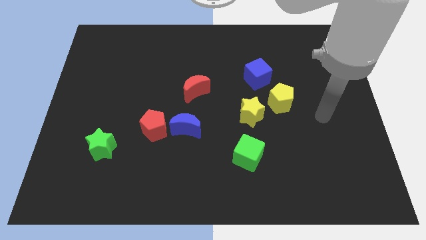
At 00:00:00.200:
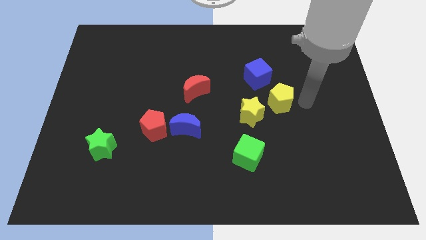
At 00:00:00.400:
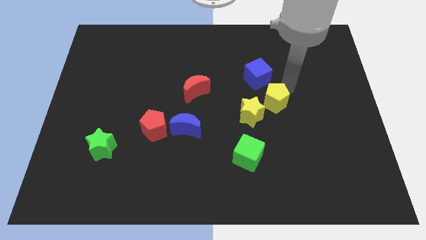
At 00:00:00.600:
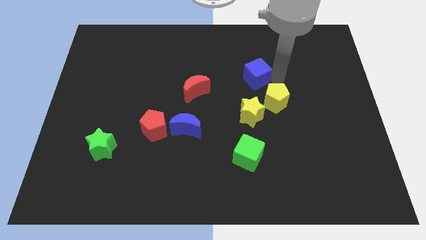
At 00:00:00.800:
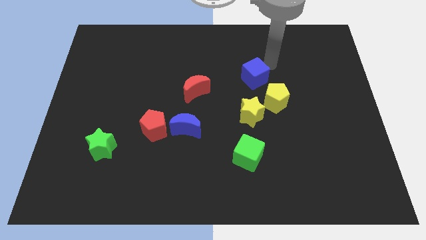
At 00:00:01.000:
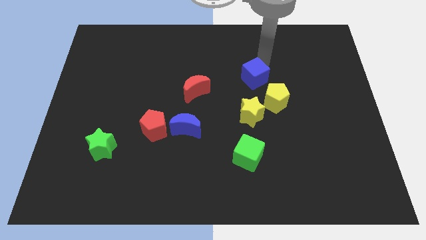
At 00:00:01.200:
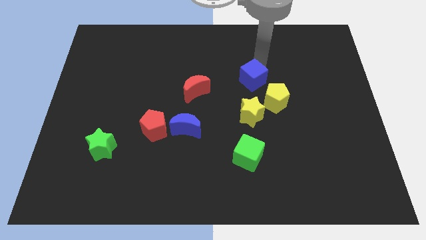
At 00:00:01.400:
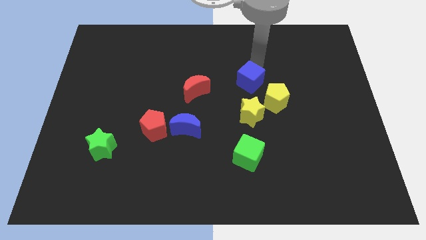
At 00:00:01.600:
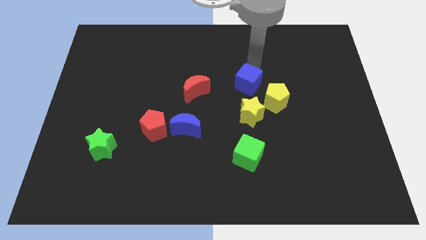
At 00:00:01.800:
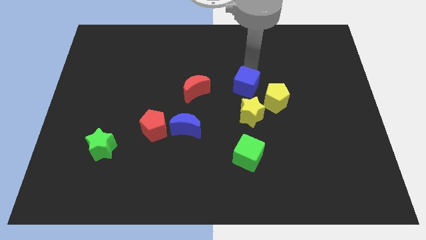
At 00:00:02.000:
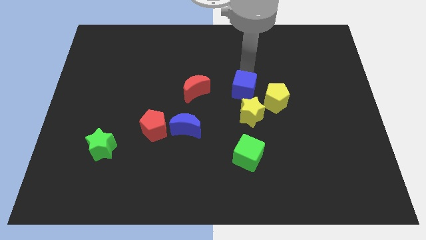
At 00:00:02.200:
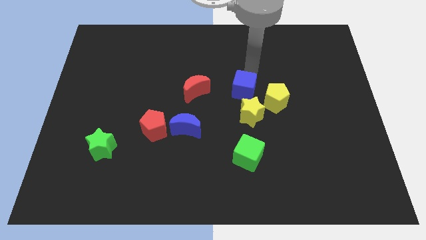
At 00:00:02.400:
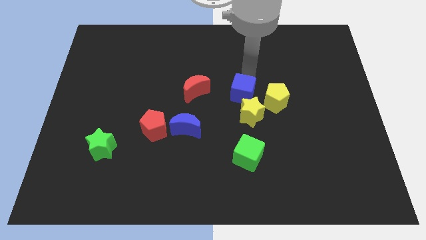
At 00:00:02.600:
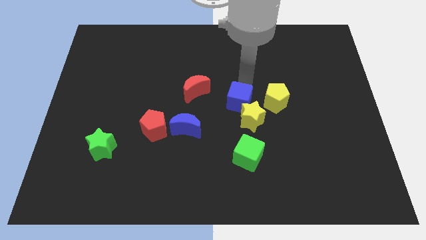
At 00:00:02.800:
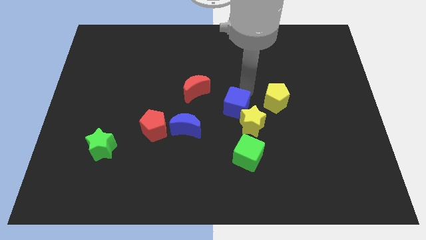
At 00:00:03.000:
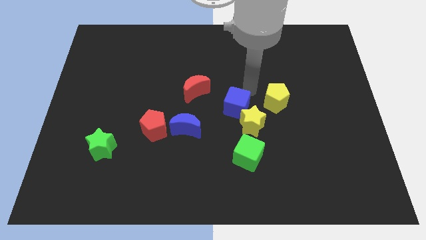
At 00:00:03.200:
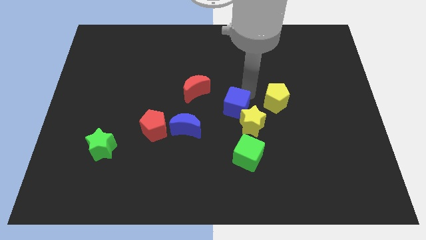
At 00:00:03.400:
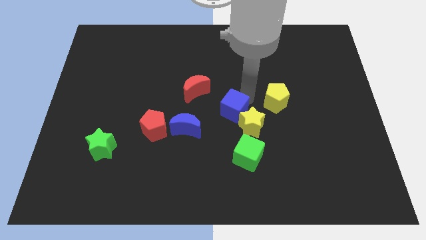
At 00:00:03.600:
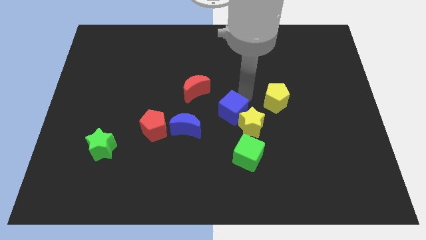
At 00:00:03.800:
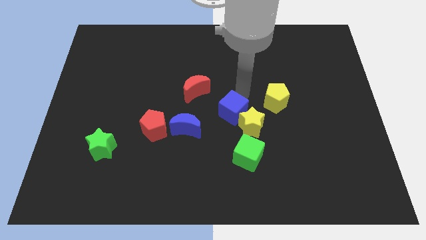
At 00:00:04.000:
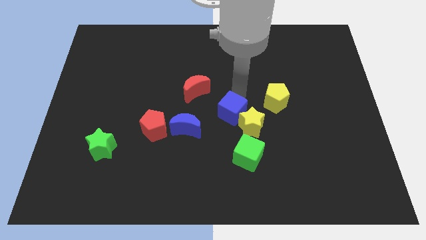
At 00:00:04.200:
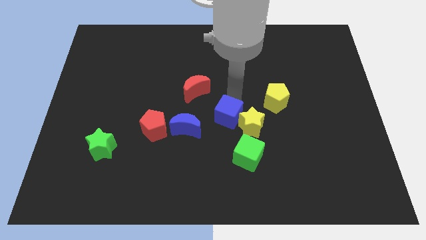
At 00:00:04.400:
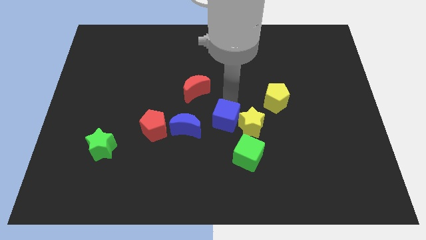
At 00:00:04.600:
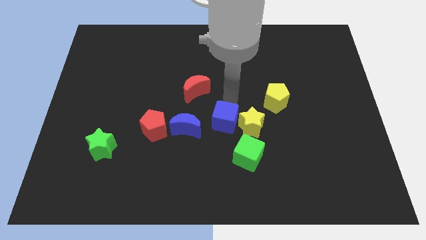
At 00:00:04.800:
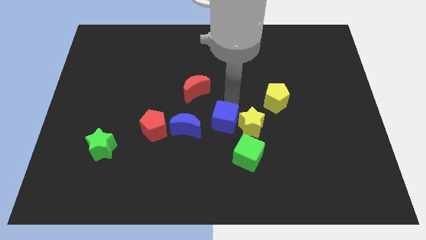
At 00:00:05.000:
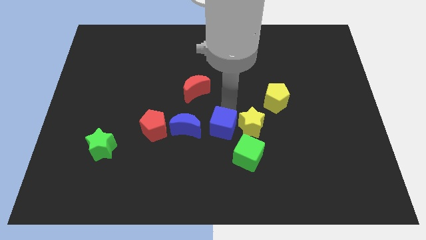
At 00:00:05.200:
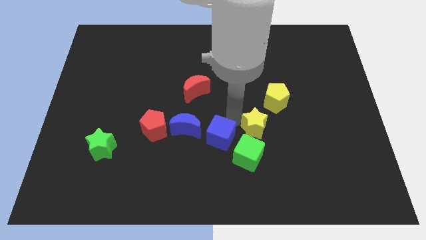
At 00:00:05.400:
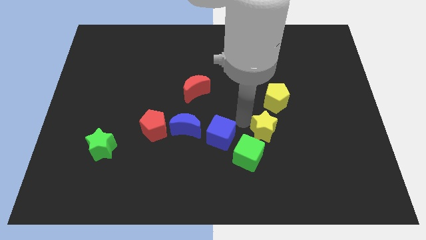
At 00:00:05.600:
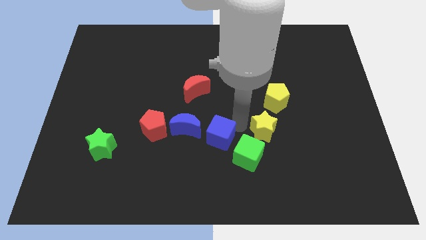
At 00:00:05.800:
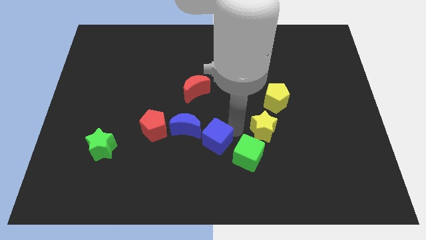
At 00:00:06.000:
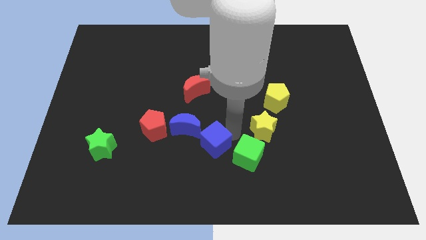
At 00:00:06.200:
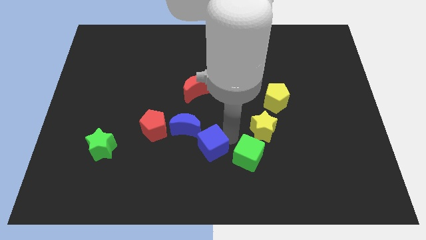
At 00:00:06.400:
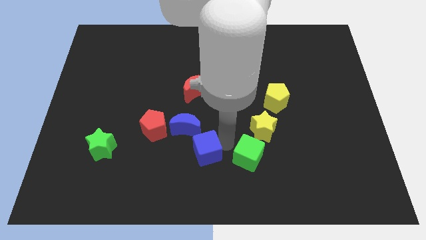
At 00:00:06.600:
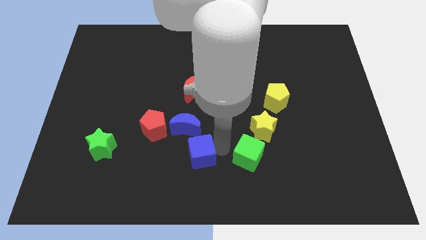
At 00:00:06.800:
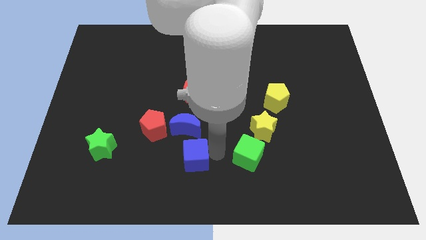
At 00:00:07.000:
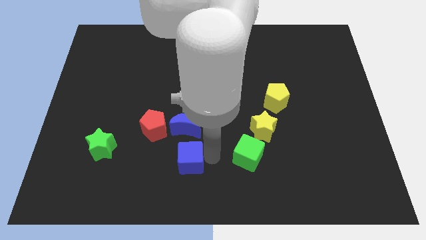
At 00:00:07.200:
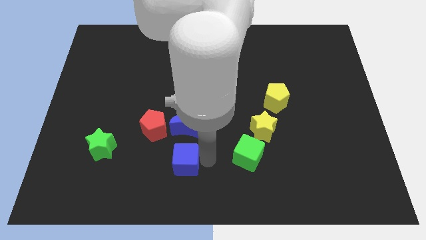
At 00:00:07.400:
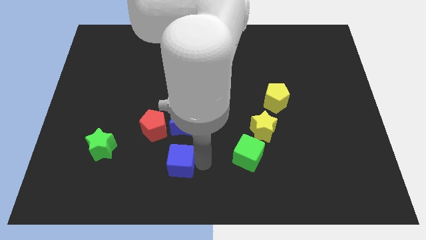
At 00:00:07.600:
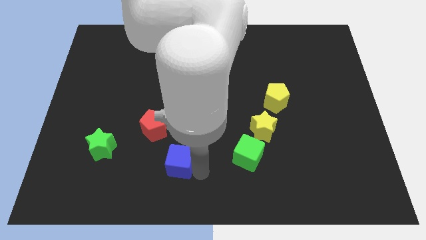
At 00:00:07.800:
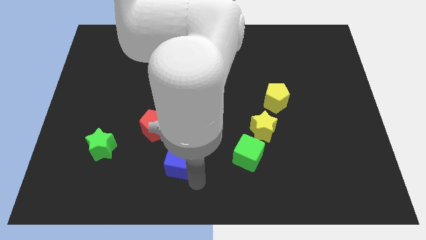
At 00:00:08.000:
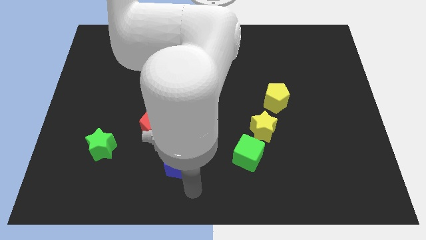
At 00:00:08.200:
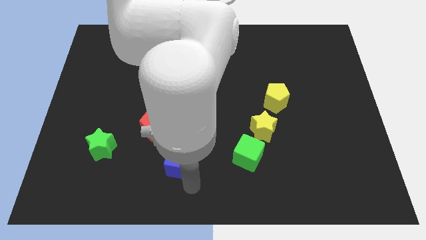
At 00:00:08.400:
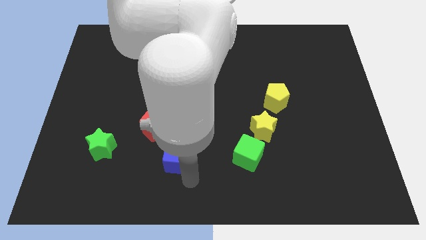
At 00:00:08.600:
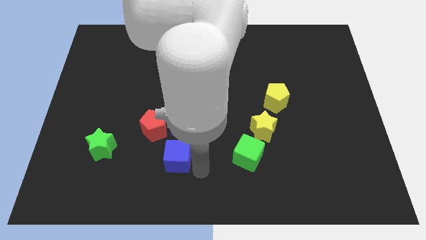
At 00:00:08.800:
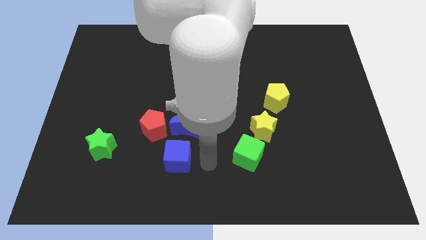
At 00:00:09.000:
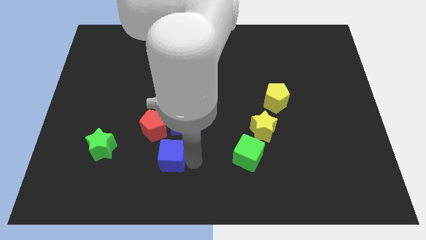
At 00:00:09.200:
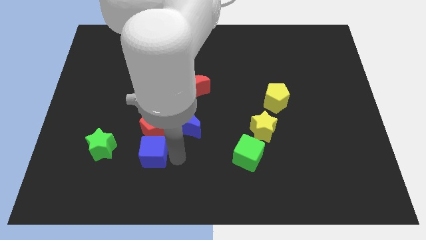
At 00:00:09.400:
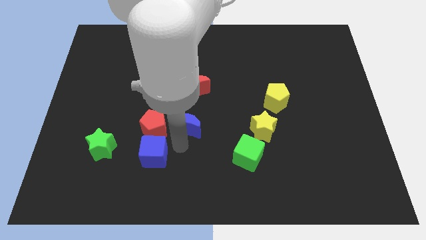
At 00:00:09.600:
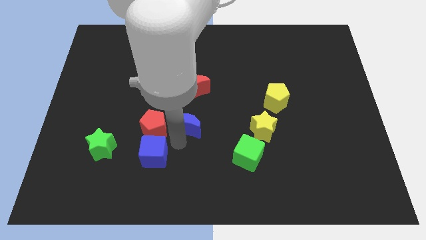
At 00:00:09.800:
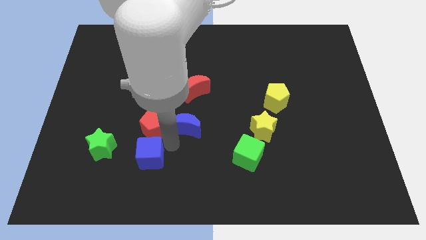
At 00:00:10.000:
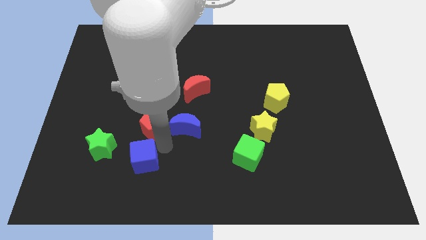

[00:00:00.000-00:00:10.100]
move the blue cube to the bottom right side of the green star

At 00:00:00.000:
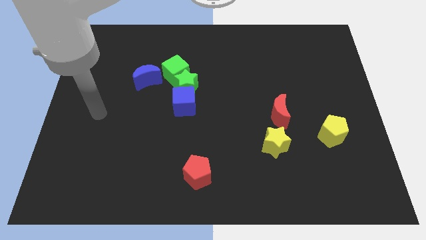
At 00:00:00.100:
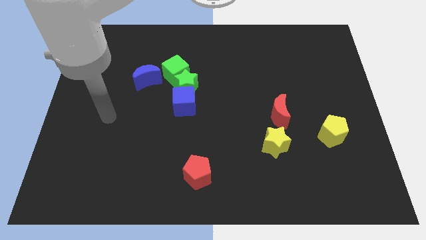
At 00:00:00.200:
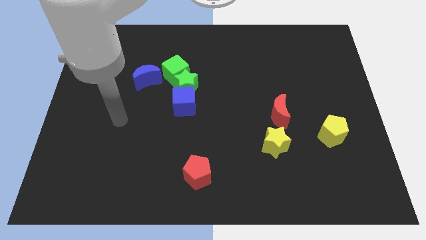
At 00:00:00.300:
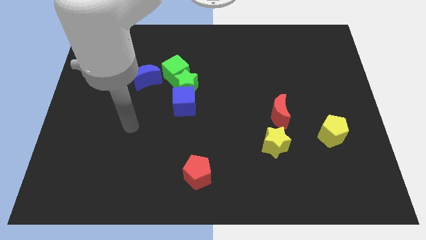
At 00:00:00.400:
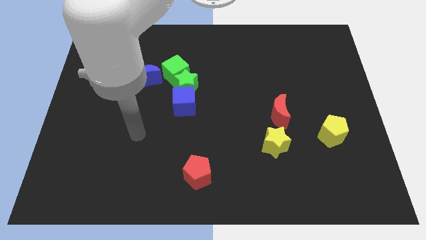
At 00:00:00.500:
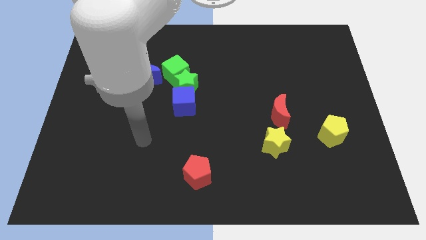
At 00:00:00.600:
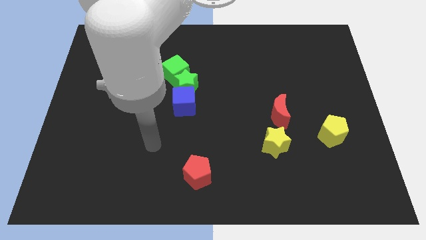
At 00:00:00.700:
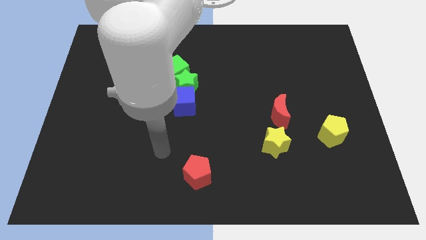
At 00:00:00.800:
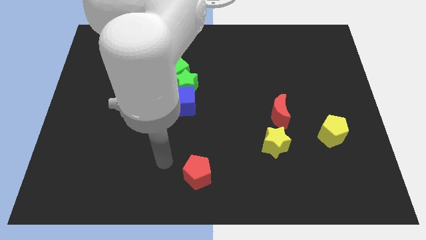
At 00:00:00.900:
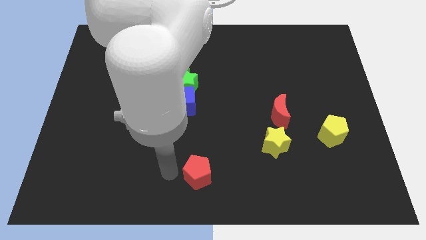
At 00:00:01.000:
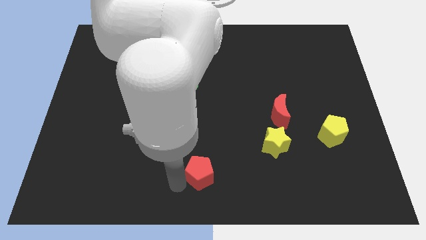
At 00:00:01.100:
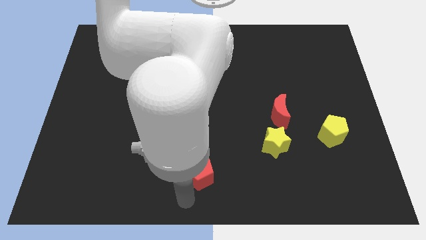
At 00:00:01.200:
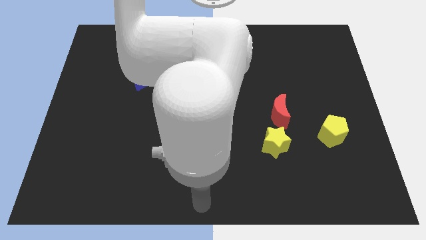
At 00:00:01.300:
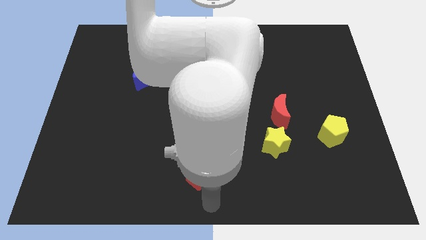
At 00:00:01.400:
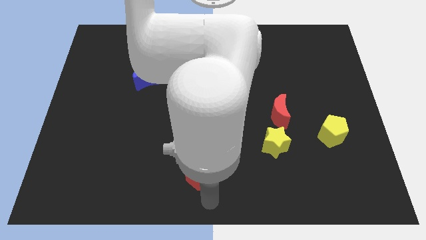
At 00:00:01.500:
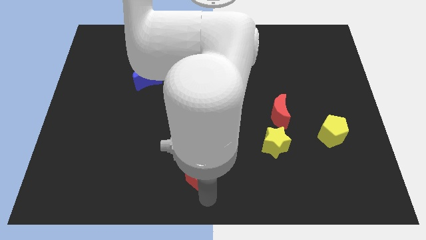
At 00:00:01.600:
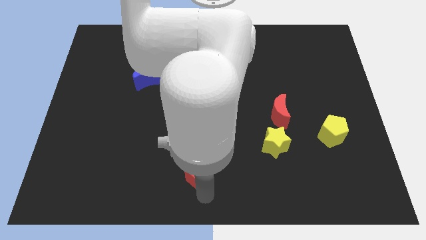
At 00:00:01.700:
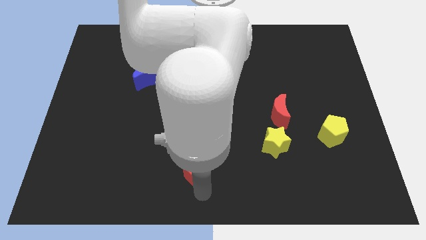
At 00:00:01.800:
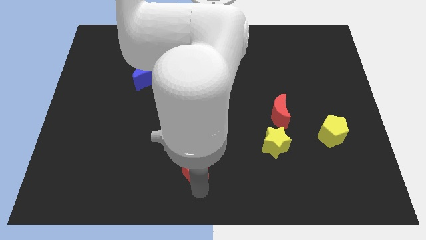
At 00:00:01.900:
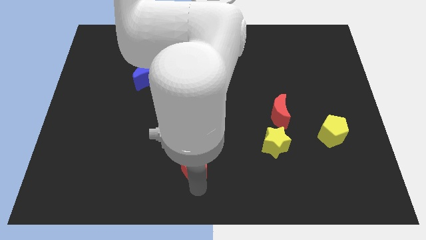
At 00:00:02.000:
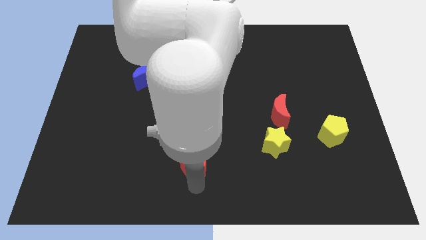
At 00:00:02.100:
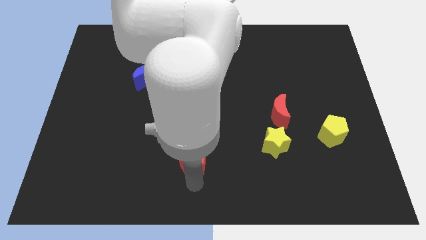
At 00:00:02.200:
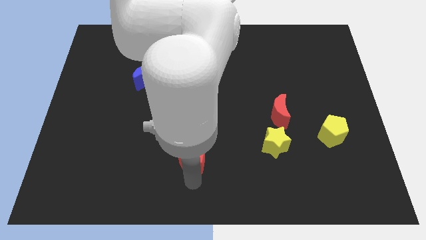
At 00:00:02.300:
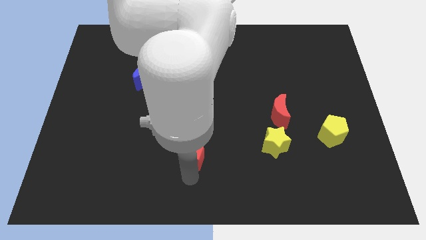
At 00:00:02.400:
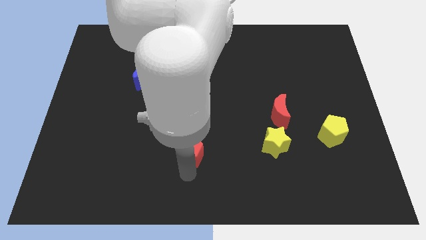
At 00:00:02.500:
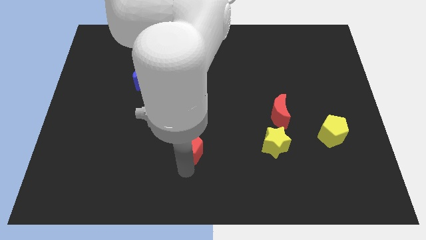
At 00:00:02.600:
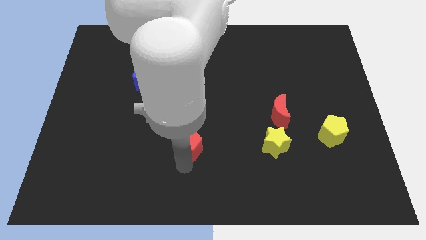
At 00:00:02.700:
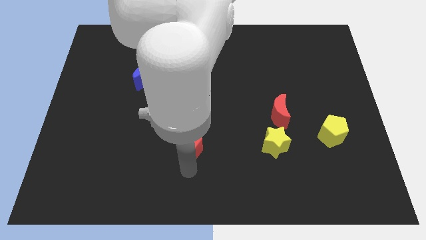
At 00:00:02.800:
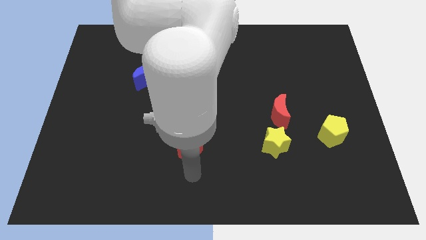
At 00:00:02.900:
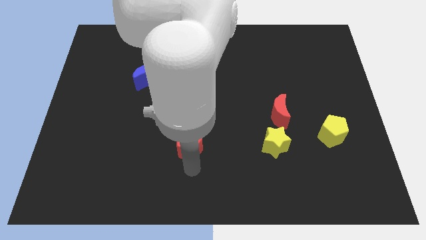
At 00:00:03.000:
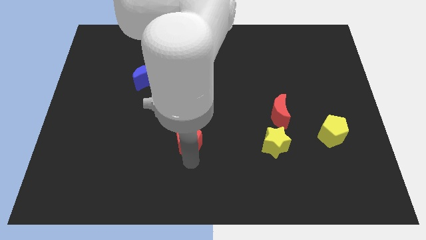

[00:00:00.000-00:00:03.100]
move the red pentagon to the bottom of the green star
